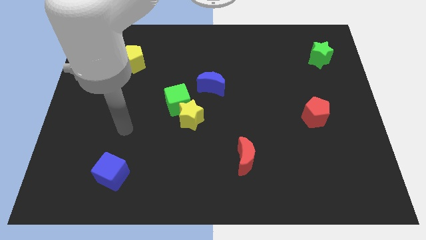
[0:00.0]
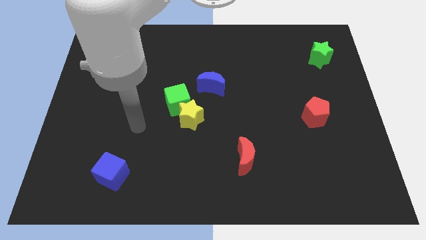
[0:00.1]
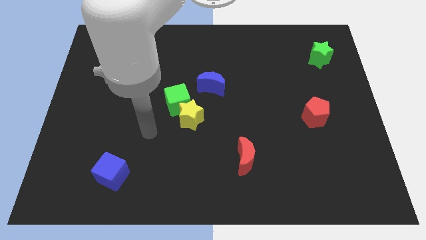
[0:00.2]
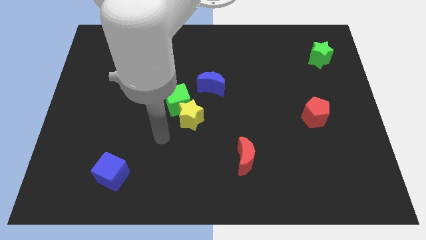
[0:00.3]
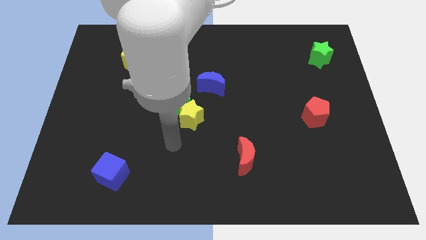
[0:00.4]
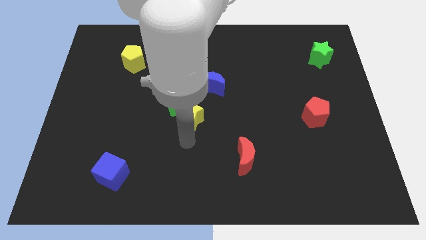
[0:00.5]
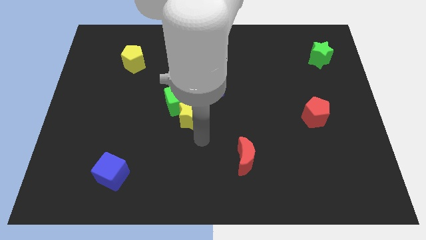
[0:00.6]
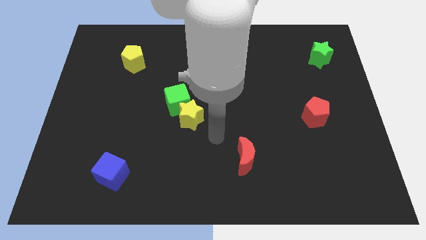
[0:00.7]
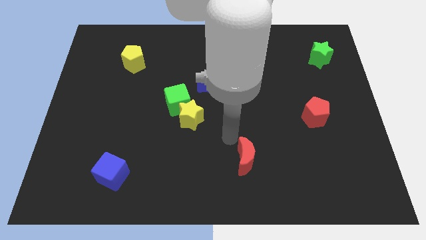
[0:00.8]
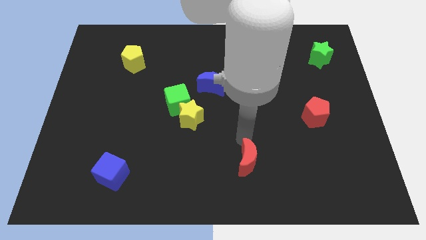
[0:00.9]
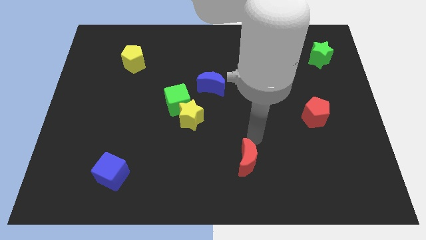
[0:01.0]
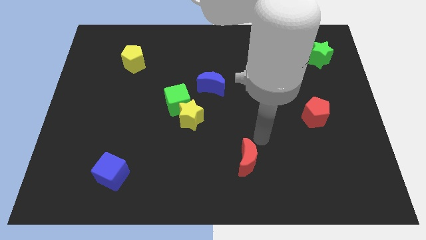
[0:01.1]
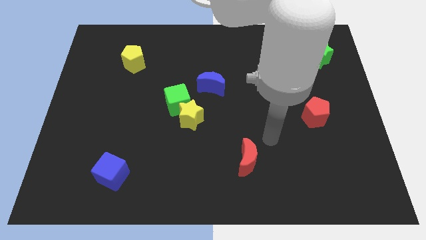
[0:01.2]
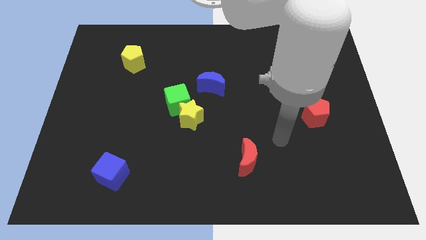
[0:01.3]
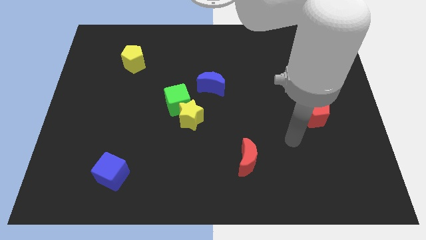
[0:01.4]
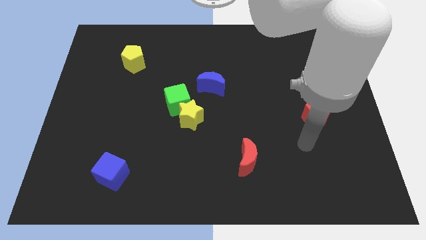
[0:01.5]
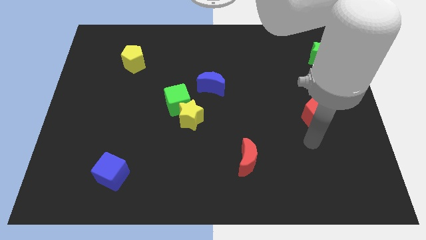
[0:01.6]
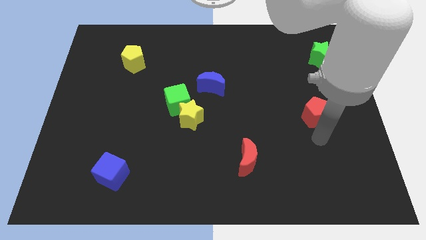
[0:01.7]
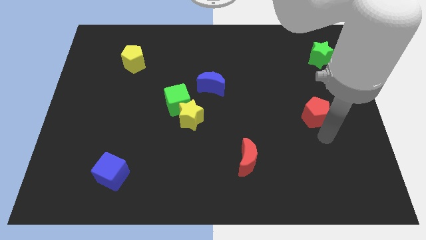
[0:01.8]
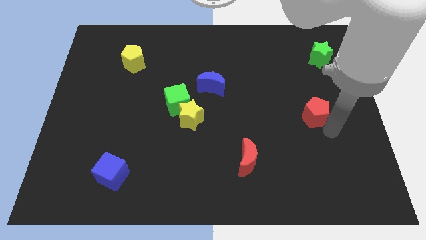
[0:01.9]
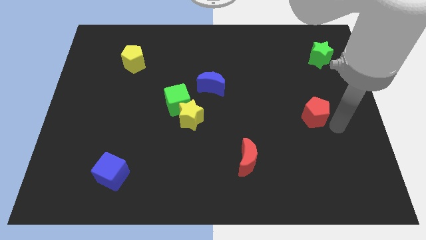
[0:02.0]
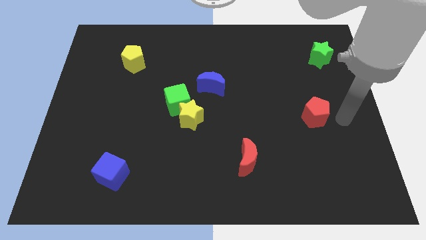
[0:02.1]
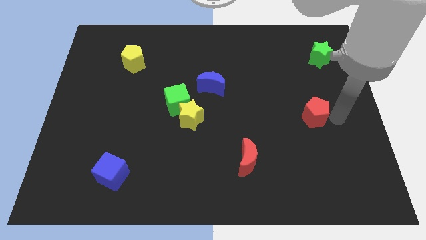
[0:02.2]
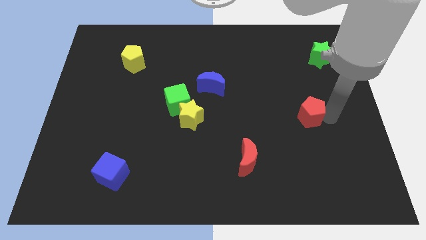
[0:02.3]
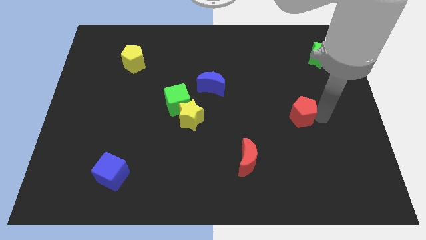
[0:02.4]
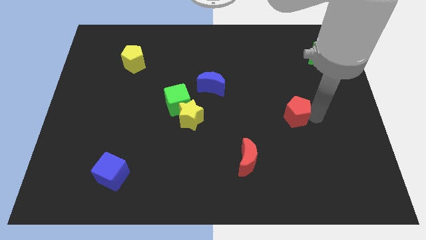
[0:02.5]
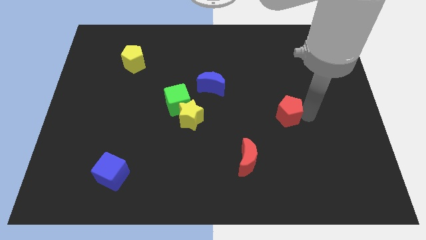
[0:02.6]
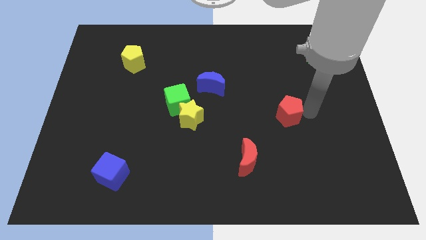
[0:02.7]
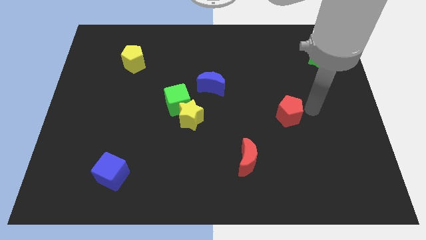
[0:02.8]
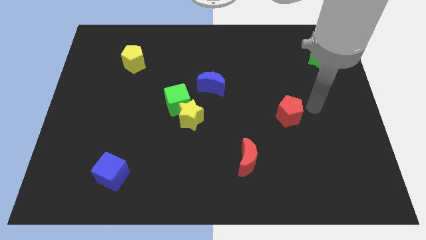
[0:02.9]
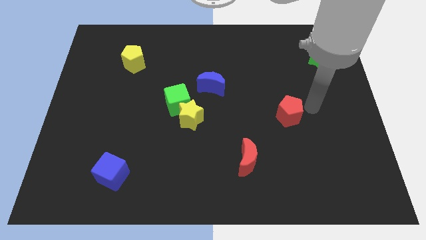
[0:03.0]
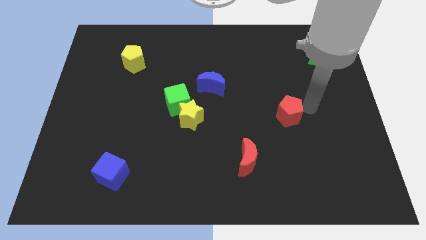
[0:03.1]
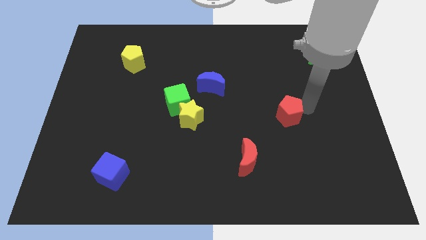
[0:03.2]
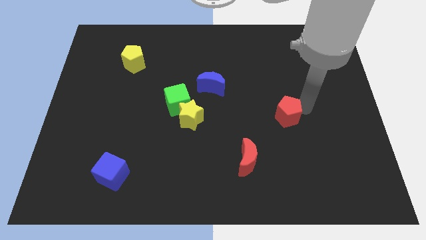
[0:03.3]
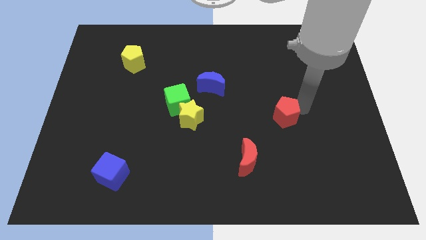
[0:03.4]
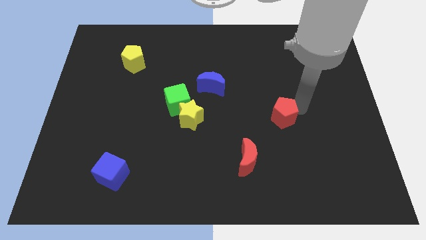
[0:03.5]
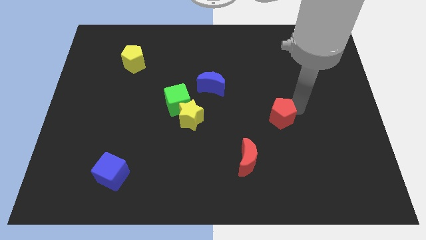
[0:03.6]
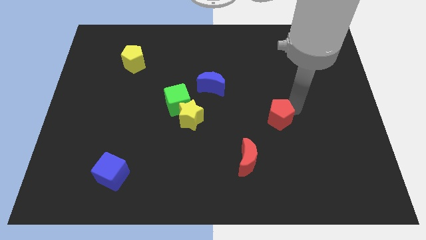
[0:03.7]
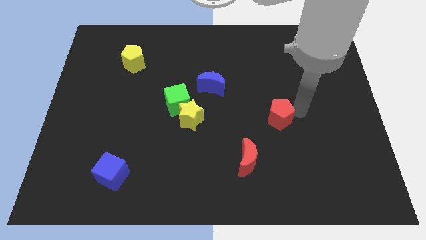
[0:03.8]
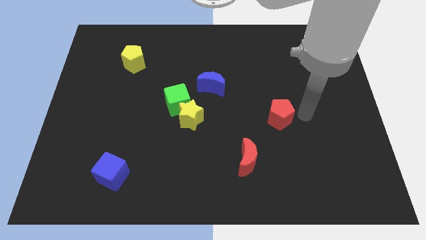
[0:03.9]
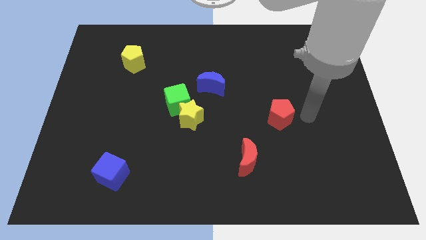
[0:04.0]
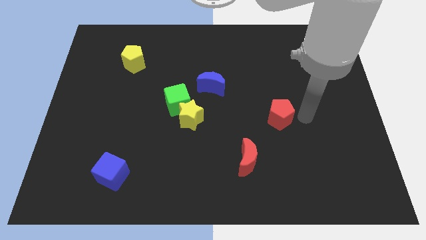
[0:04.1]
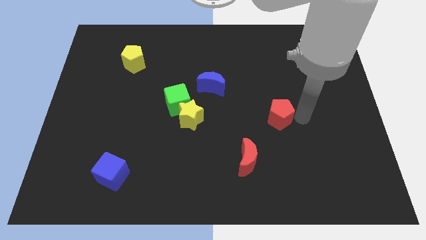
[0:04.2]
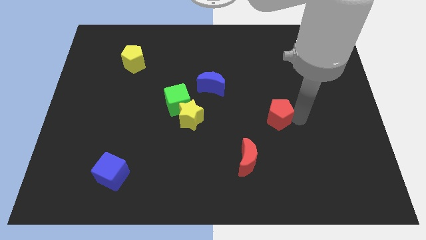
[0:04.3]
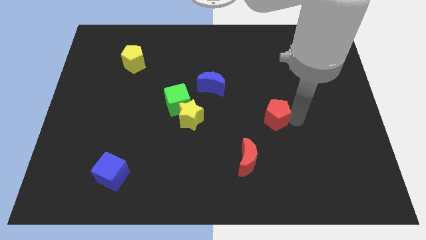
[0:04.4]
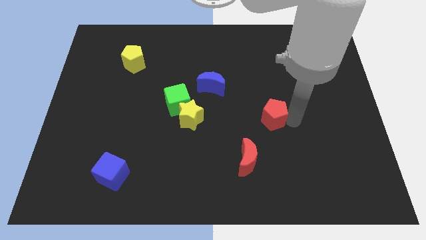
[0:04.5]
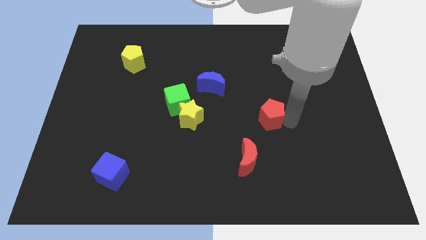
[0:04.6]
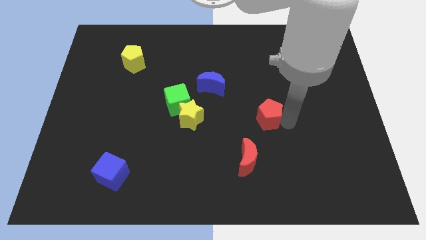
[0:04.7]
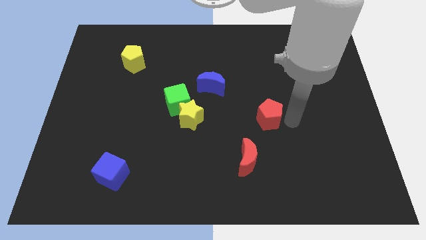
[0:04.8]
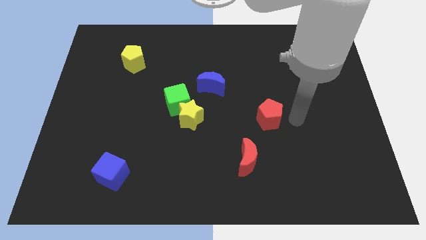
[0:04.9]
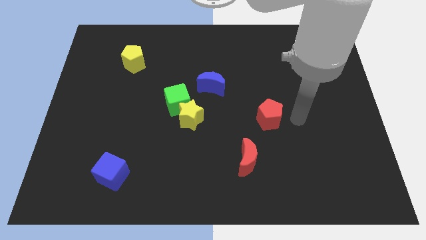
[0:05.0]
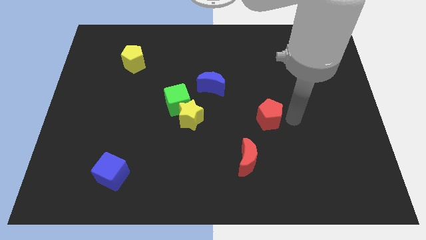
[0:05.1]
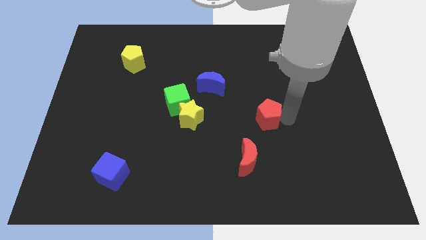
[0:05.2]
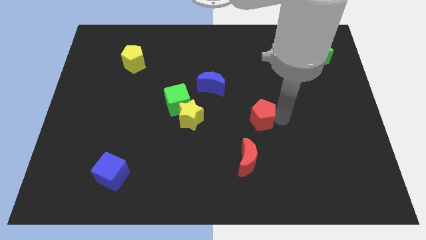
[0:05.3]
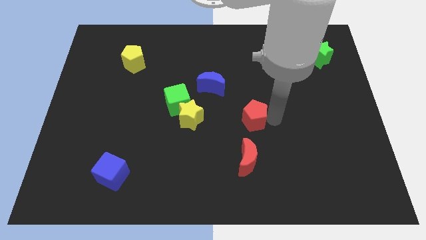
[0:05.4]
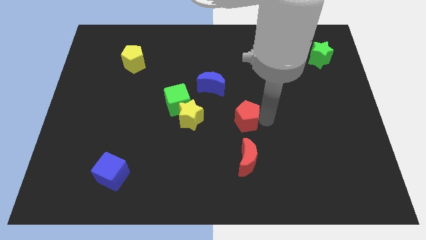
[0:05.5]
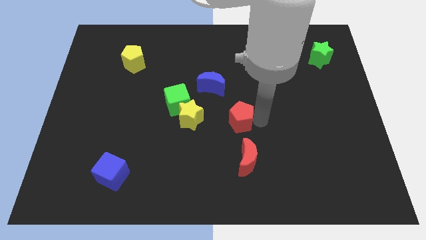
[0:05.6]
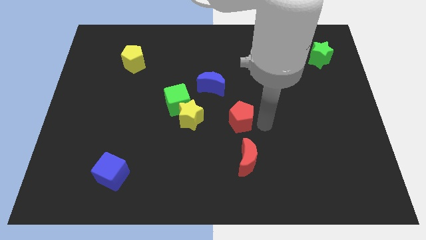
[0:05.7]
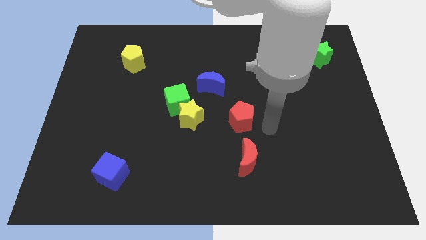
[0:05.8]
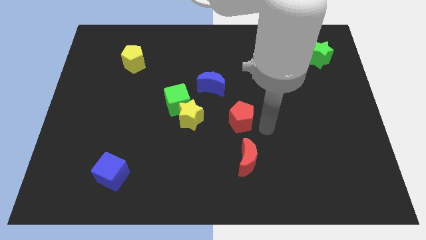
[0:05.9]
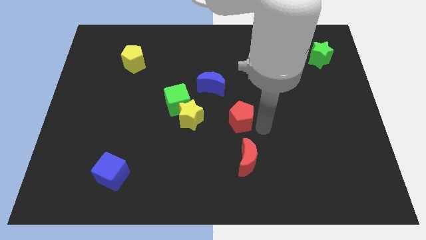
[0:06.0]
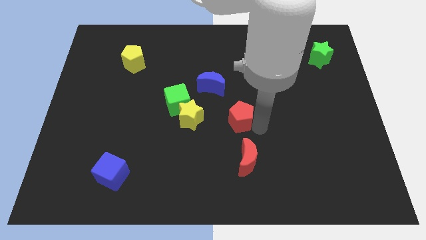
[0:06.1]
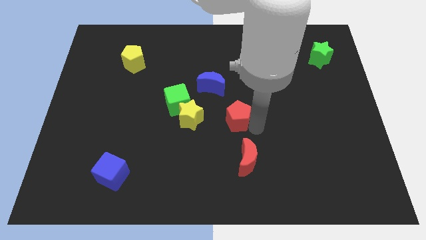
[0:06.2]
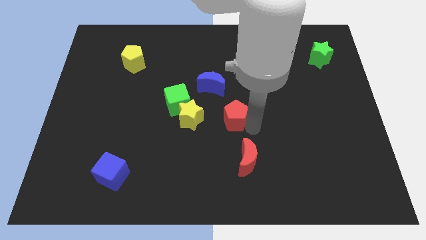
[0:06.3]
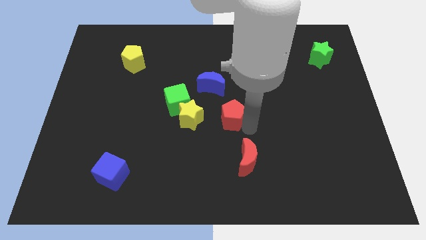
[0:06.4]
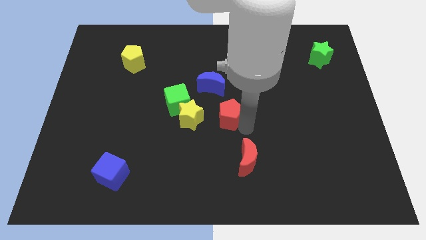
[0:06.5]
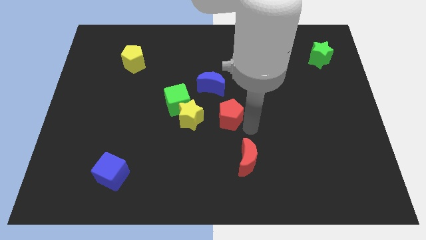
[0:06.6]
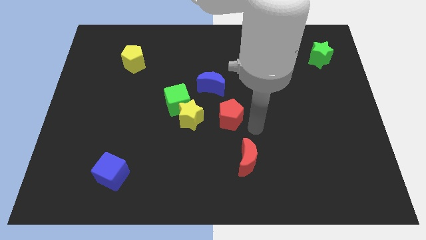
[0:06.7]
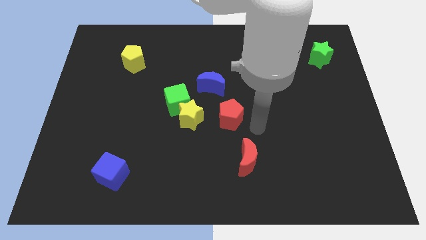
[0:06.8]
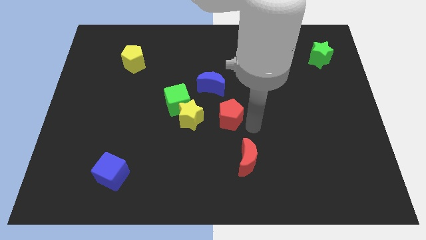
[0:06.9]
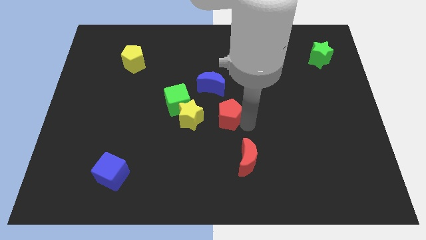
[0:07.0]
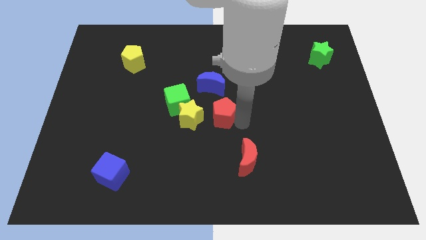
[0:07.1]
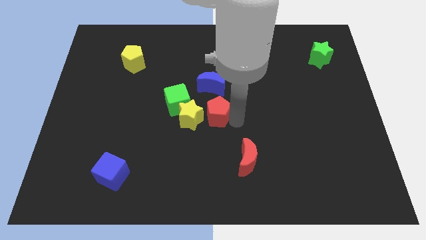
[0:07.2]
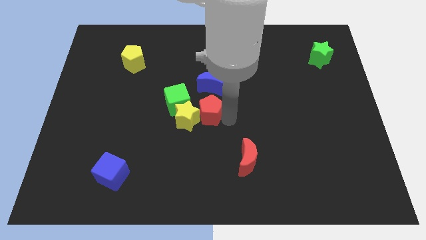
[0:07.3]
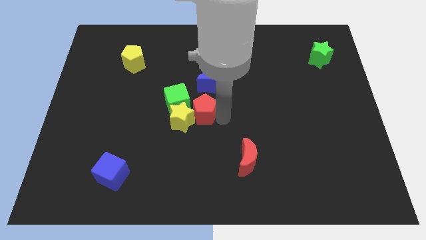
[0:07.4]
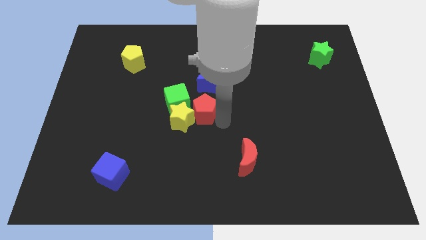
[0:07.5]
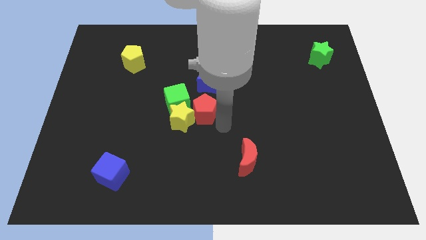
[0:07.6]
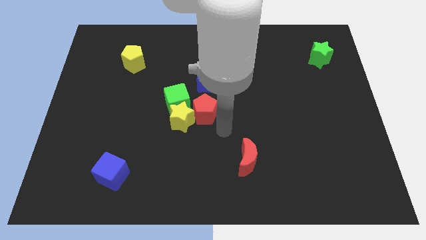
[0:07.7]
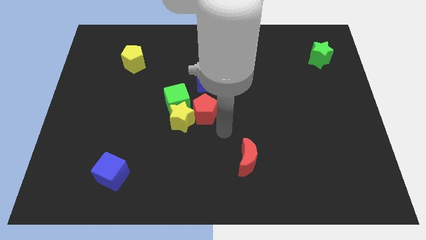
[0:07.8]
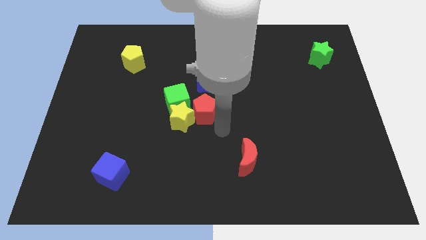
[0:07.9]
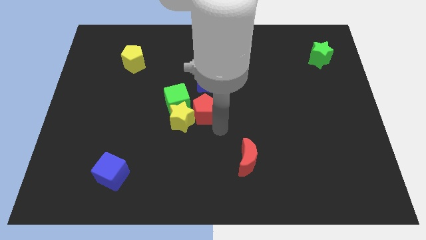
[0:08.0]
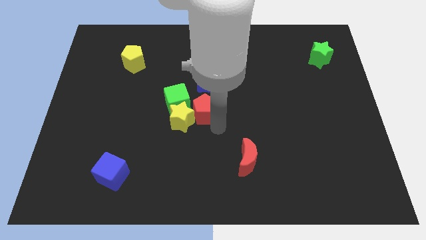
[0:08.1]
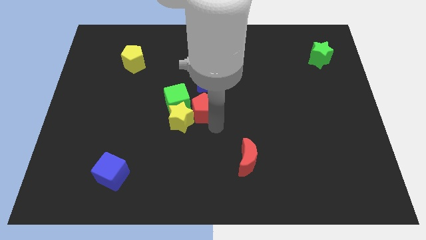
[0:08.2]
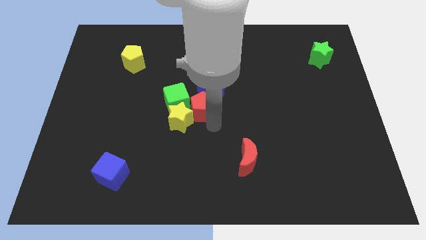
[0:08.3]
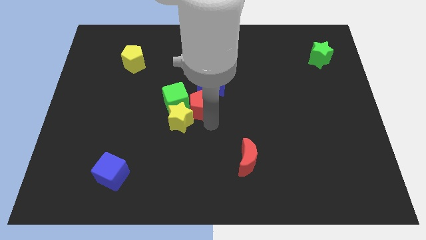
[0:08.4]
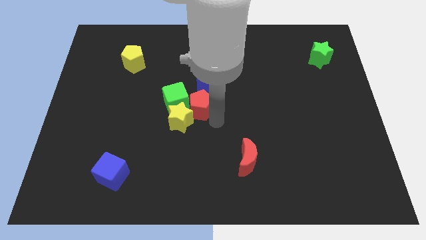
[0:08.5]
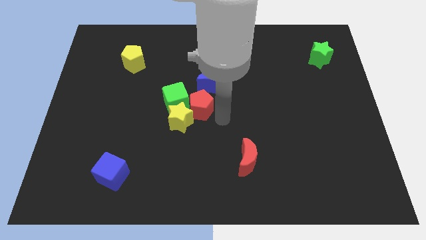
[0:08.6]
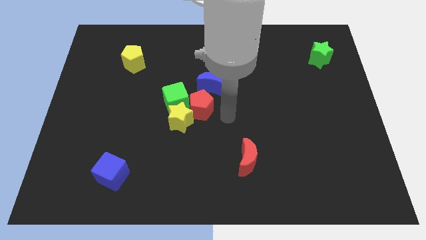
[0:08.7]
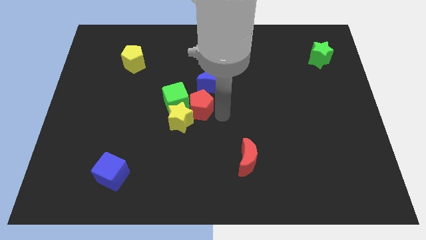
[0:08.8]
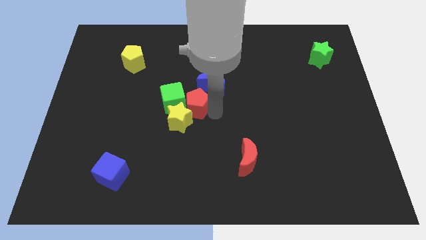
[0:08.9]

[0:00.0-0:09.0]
put the red pentagon next to the green cube
